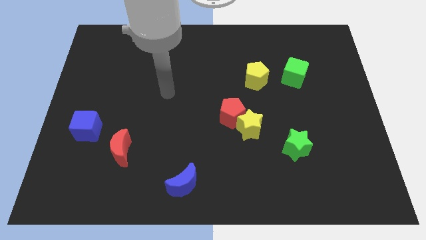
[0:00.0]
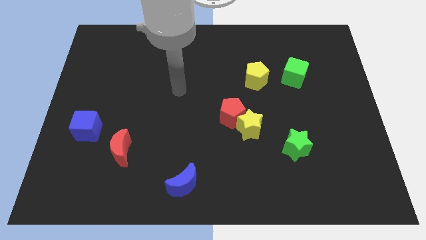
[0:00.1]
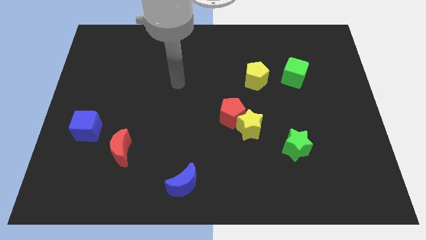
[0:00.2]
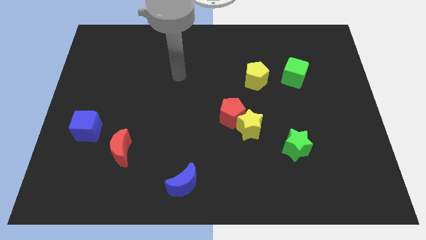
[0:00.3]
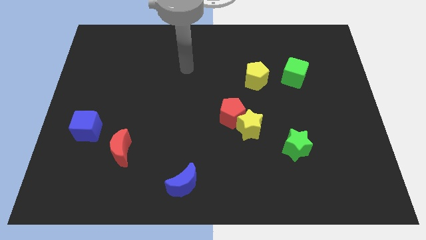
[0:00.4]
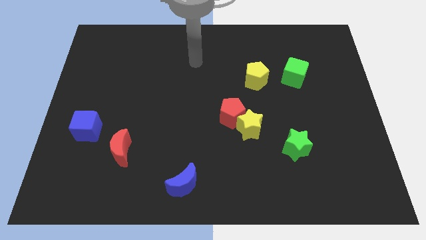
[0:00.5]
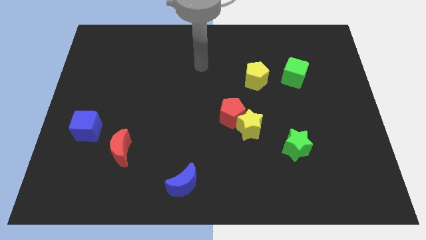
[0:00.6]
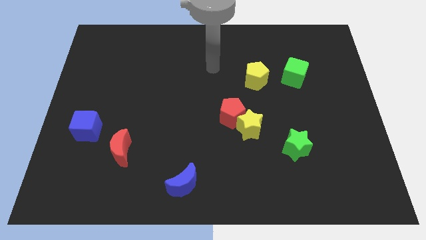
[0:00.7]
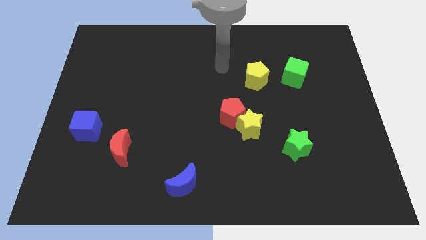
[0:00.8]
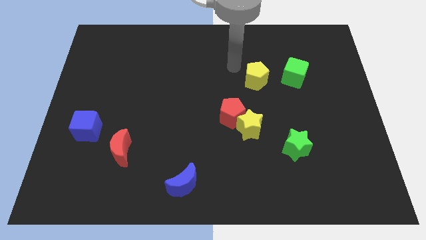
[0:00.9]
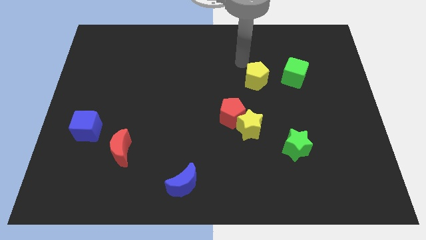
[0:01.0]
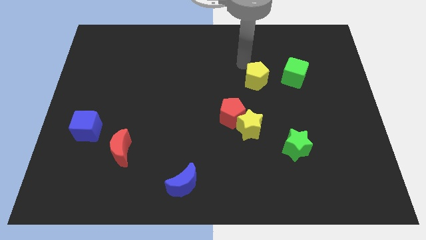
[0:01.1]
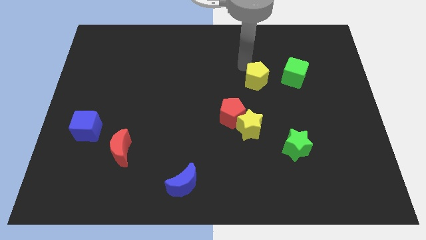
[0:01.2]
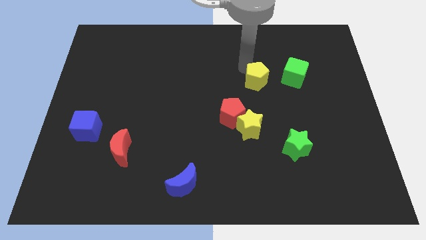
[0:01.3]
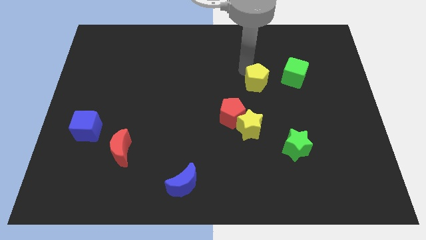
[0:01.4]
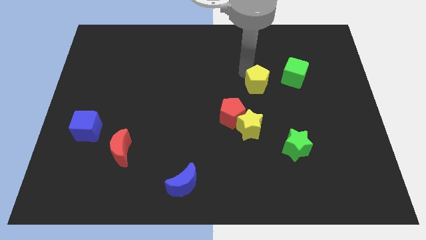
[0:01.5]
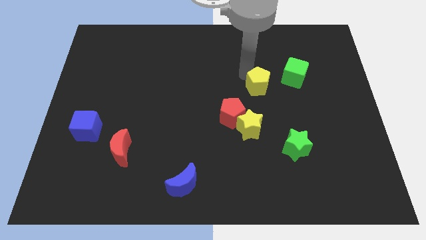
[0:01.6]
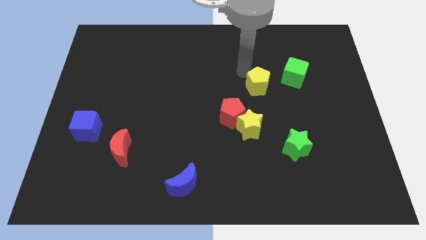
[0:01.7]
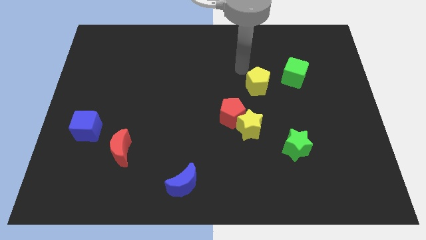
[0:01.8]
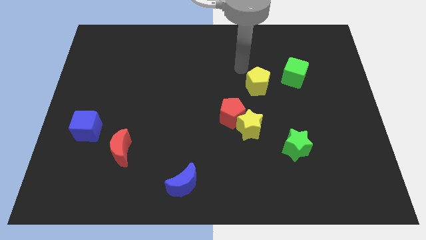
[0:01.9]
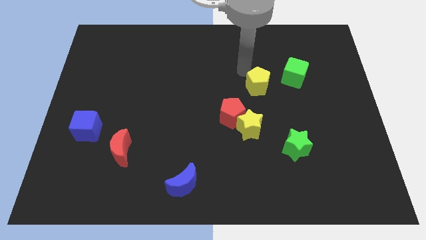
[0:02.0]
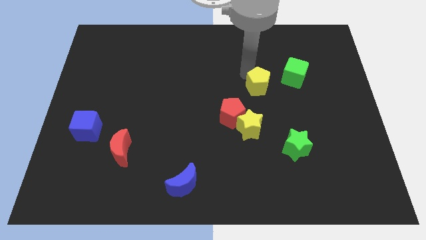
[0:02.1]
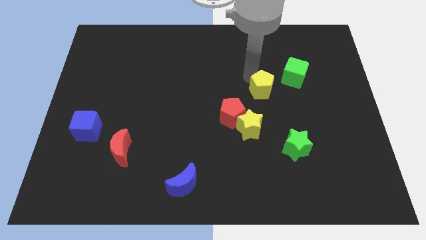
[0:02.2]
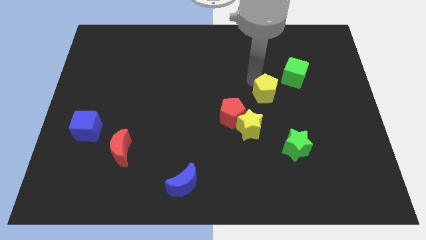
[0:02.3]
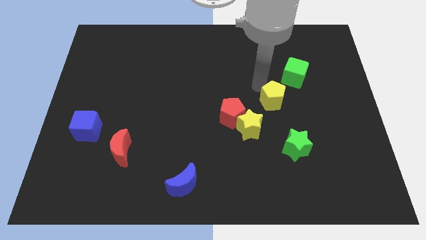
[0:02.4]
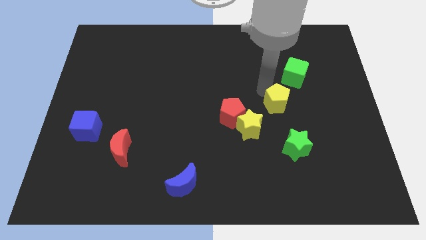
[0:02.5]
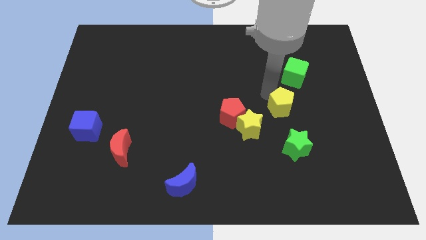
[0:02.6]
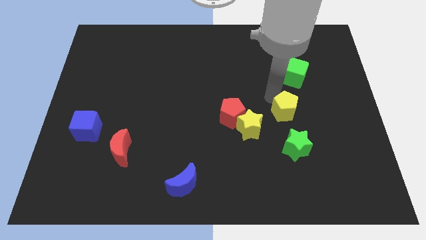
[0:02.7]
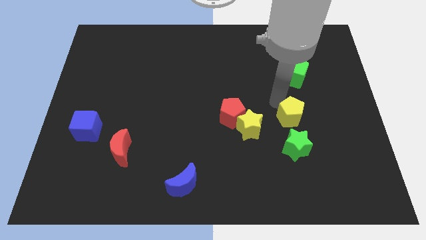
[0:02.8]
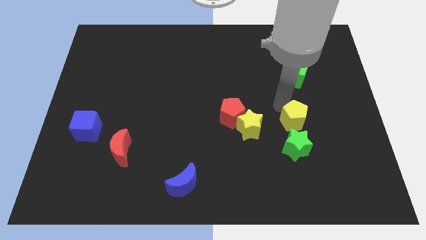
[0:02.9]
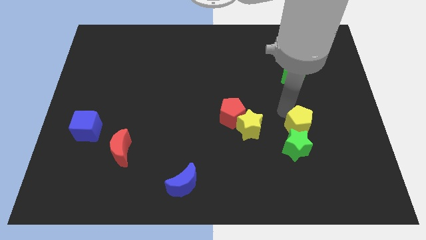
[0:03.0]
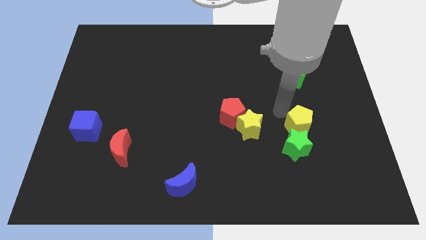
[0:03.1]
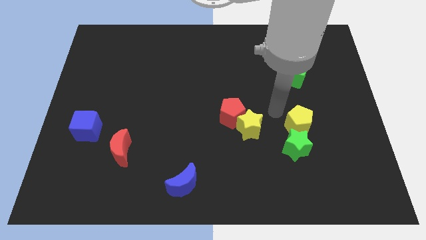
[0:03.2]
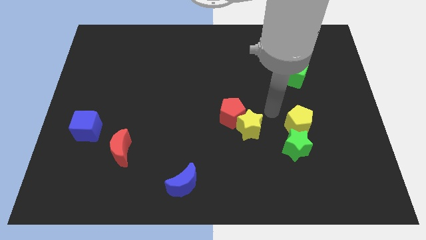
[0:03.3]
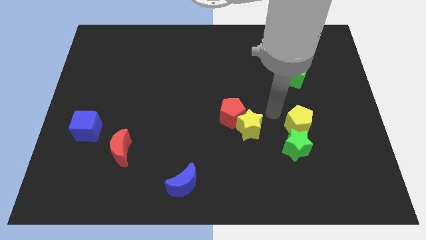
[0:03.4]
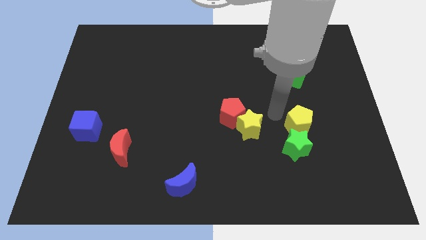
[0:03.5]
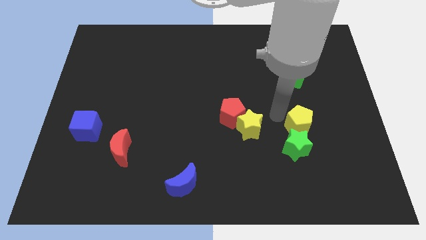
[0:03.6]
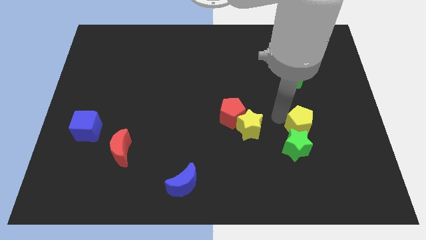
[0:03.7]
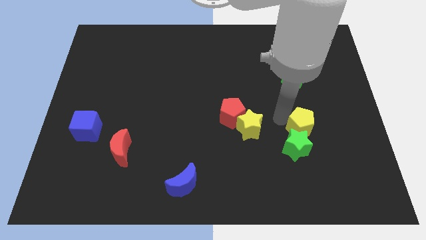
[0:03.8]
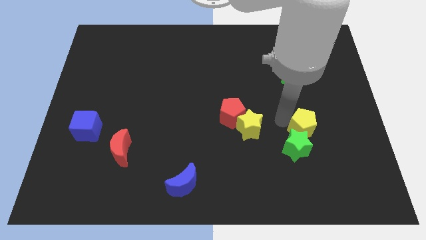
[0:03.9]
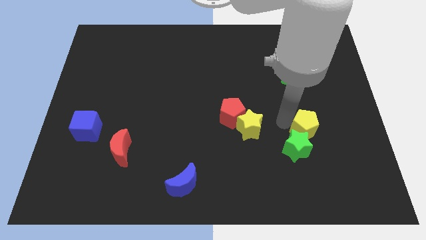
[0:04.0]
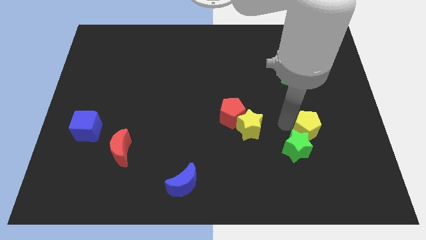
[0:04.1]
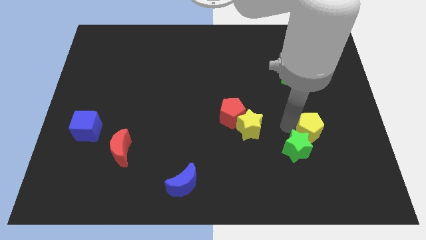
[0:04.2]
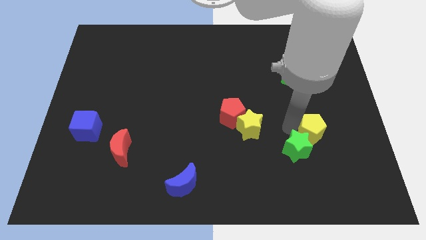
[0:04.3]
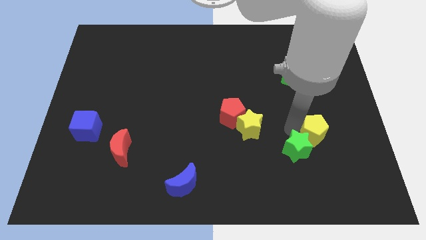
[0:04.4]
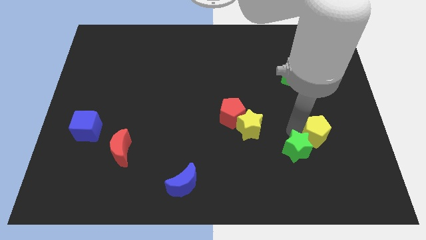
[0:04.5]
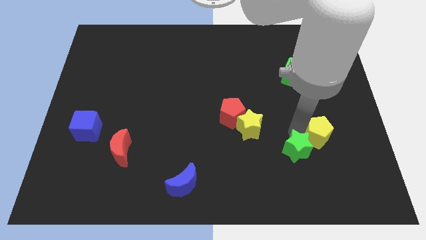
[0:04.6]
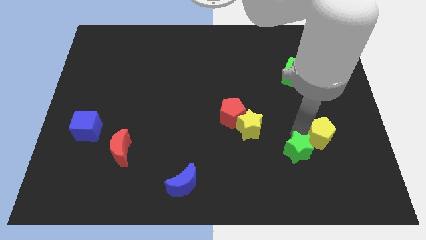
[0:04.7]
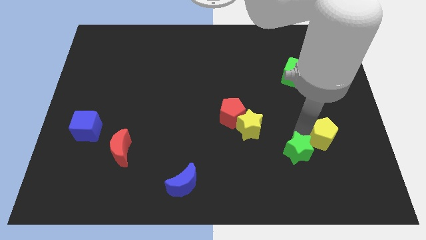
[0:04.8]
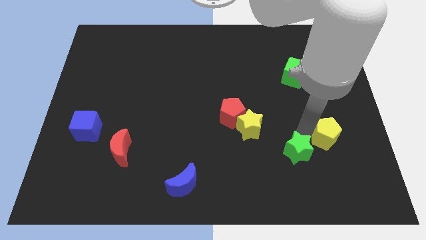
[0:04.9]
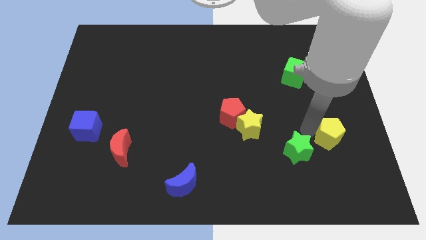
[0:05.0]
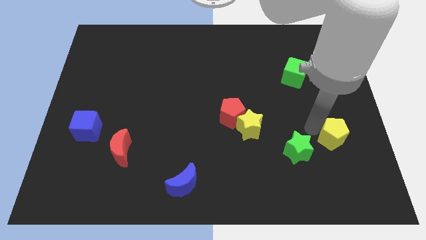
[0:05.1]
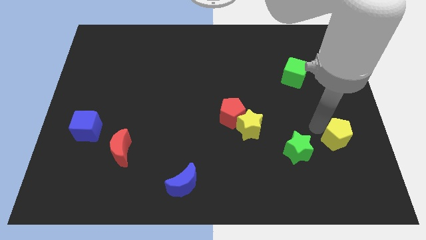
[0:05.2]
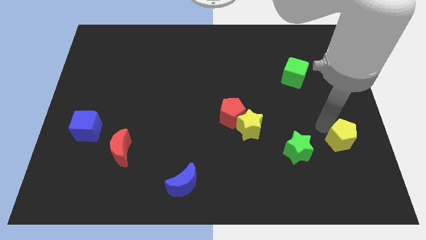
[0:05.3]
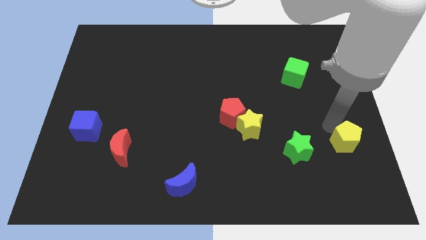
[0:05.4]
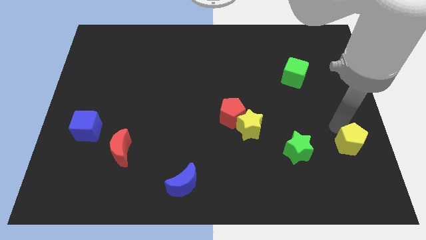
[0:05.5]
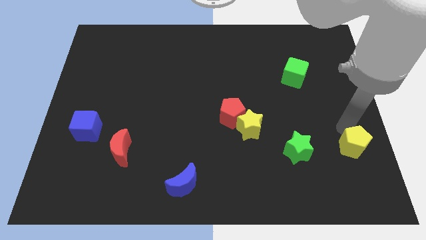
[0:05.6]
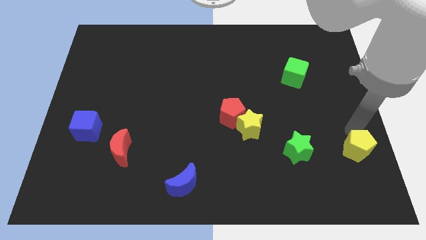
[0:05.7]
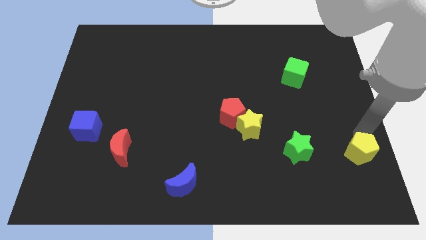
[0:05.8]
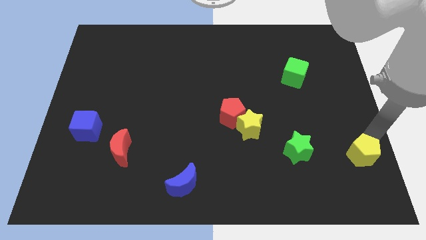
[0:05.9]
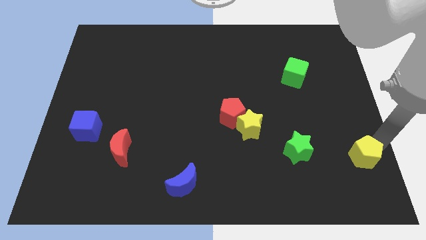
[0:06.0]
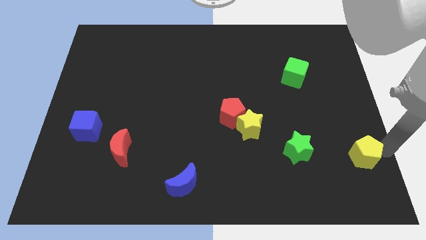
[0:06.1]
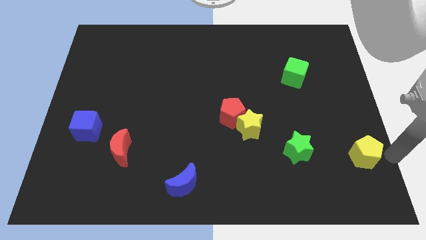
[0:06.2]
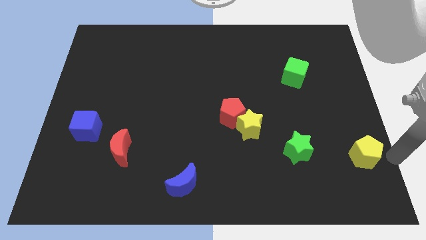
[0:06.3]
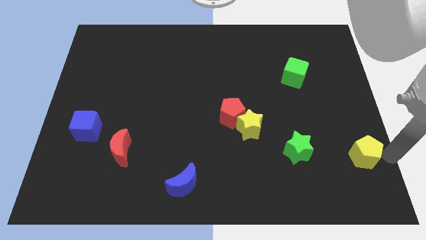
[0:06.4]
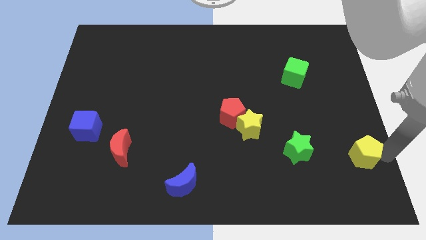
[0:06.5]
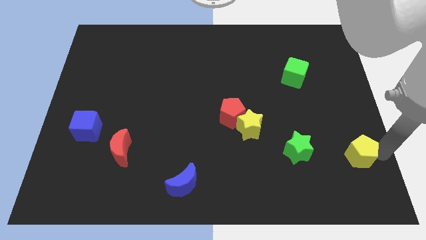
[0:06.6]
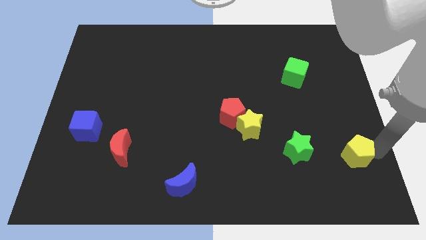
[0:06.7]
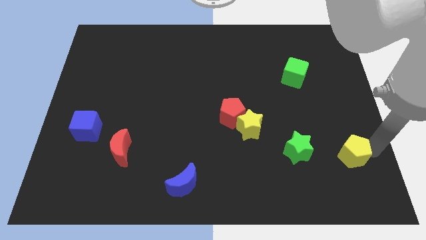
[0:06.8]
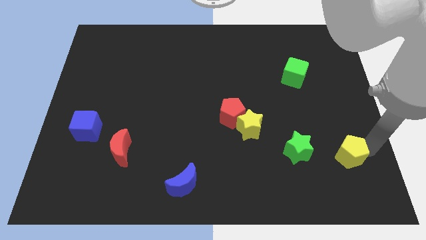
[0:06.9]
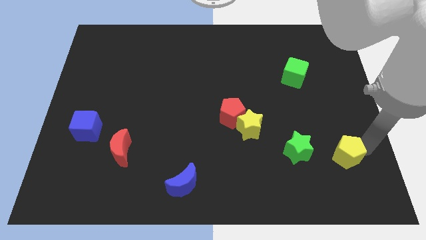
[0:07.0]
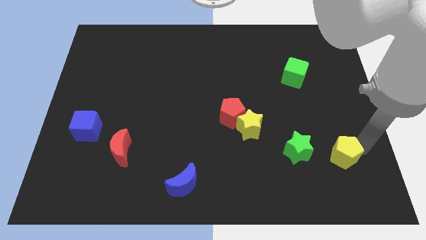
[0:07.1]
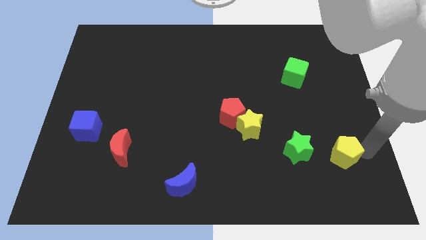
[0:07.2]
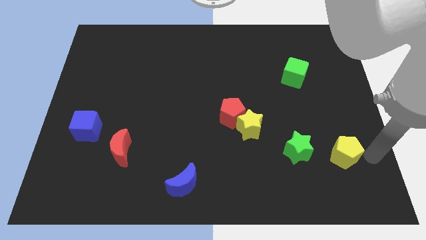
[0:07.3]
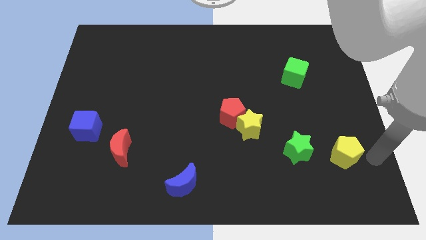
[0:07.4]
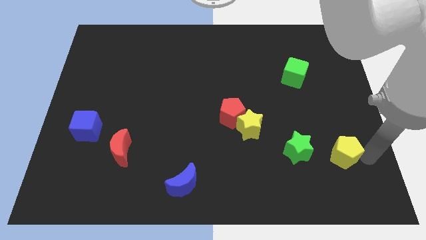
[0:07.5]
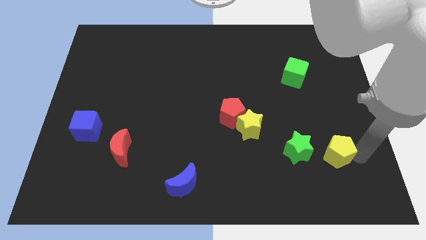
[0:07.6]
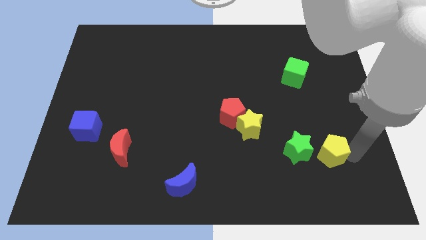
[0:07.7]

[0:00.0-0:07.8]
slide the yellow pentagon to the bottom right side of the green star
